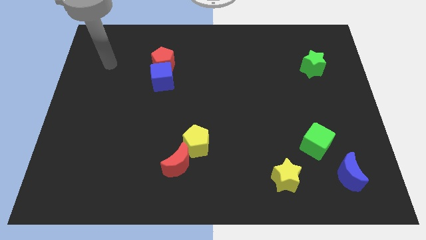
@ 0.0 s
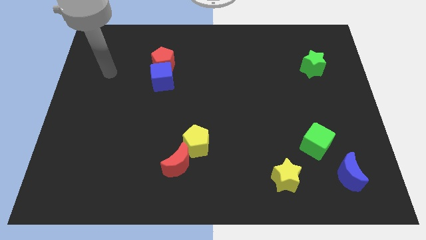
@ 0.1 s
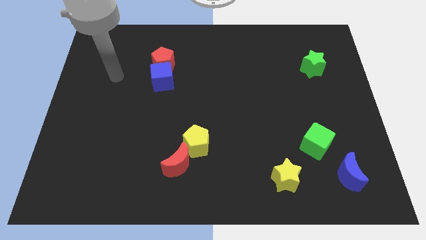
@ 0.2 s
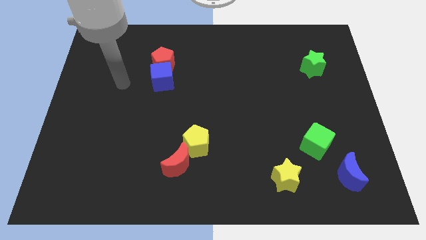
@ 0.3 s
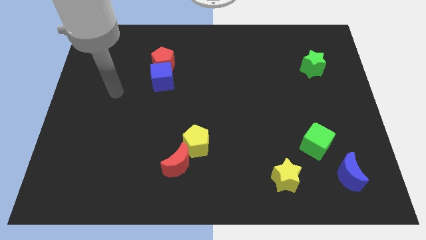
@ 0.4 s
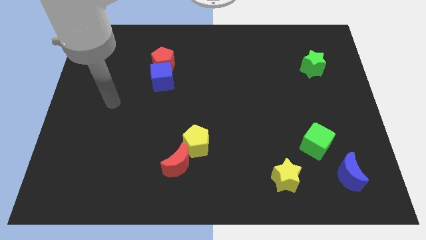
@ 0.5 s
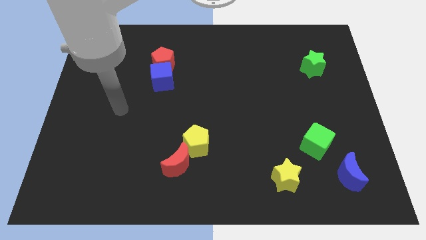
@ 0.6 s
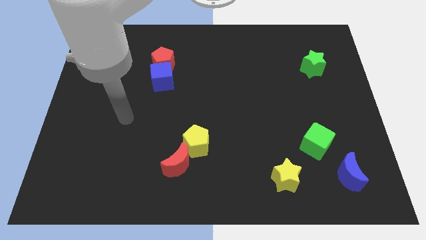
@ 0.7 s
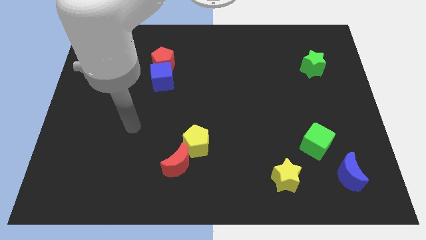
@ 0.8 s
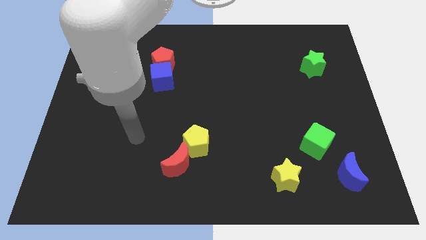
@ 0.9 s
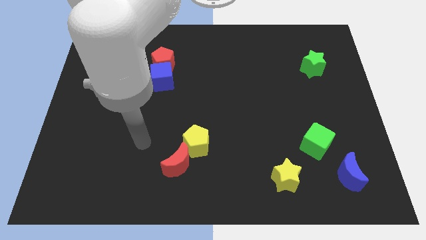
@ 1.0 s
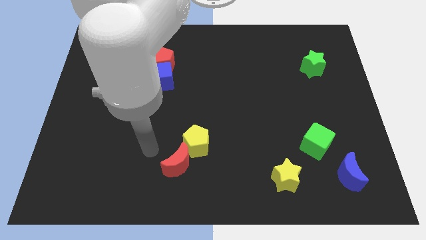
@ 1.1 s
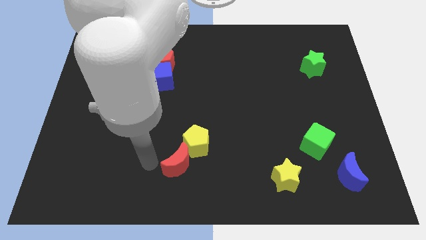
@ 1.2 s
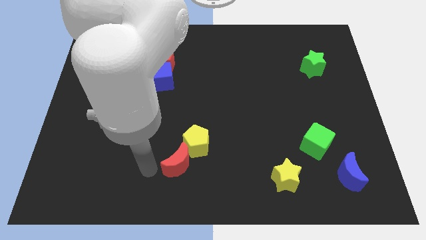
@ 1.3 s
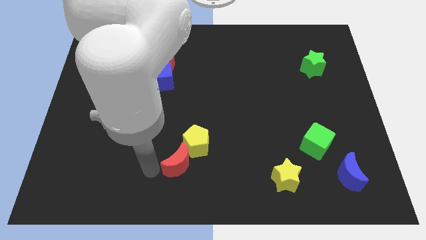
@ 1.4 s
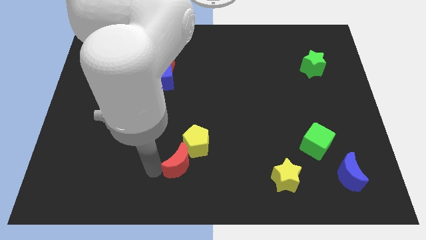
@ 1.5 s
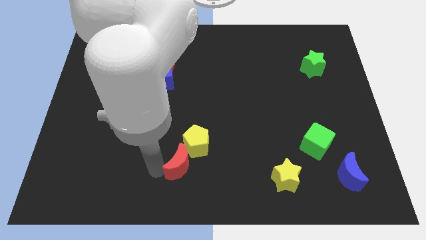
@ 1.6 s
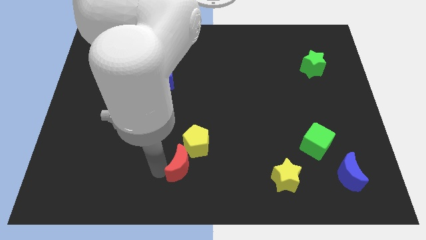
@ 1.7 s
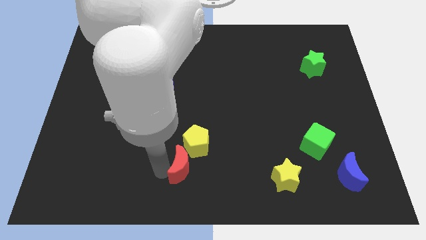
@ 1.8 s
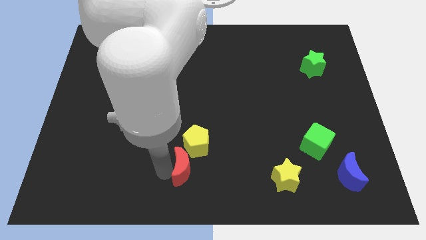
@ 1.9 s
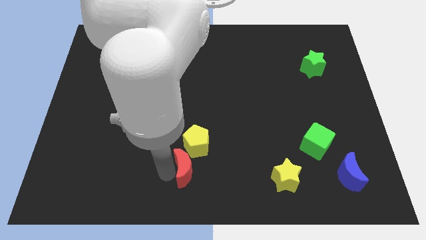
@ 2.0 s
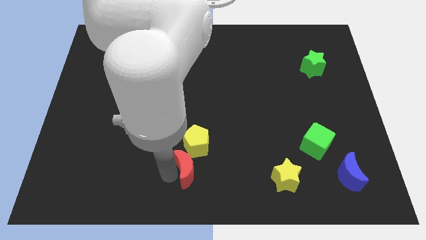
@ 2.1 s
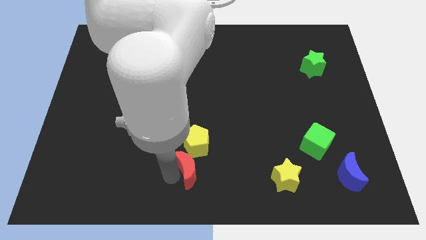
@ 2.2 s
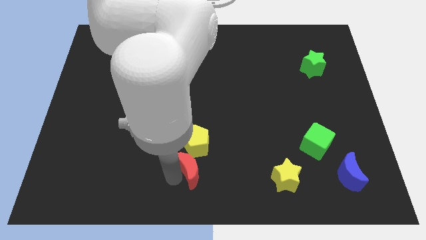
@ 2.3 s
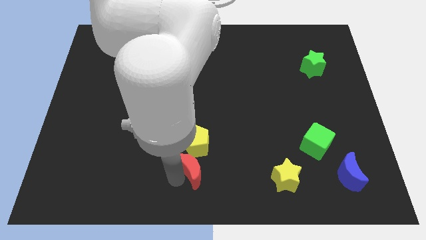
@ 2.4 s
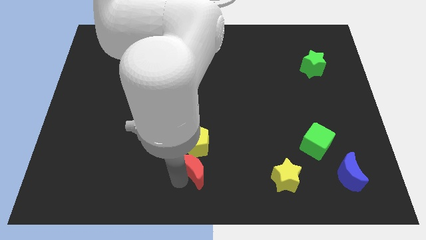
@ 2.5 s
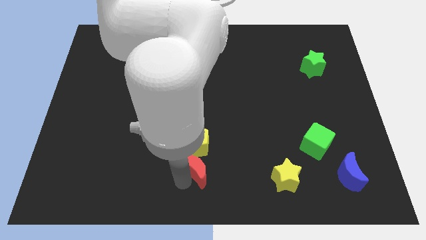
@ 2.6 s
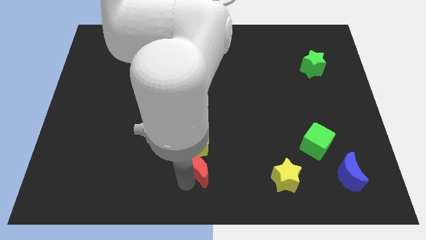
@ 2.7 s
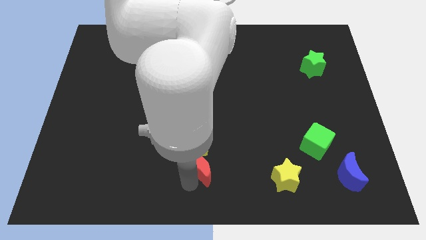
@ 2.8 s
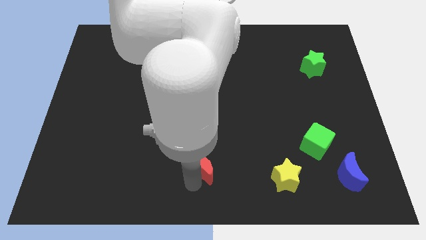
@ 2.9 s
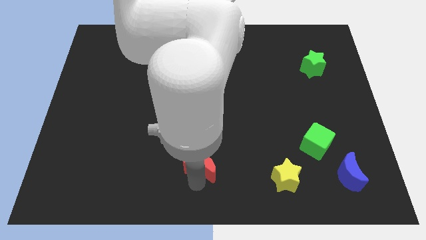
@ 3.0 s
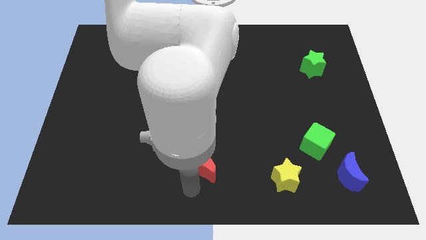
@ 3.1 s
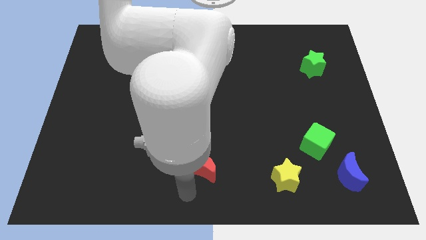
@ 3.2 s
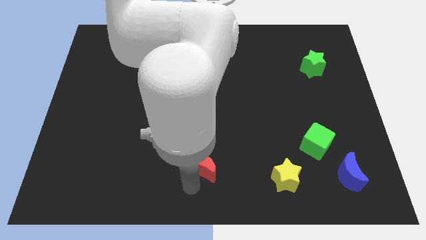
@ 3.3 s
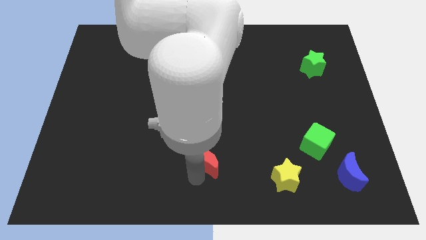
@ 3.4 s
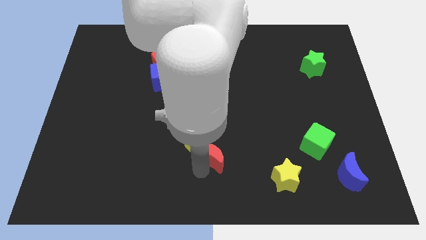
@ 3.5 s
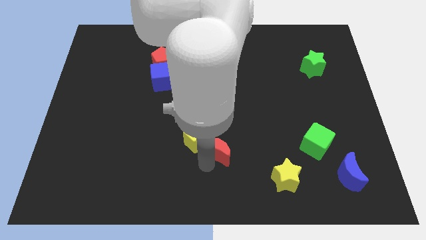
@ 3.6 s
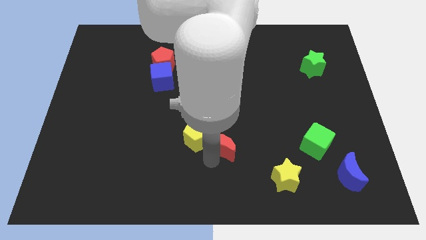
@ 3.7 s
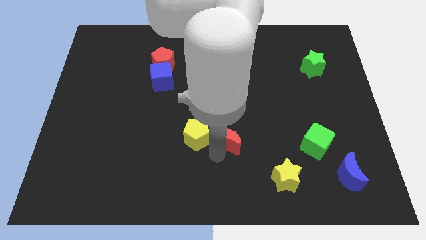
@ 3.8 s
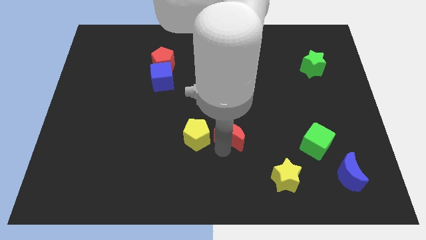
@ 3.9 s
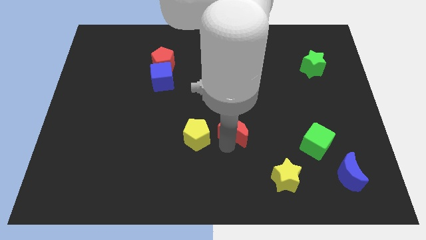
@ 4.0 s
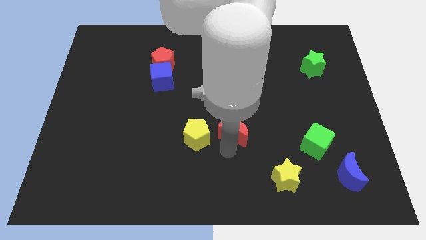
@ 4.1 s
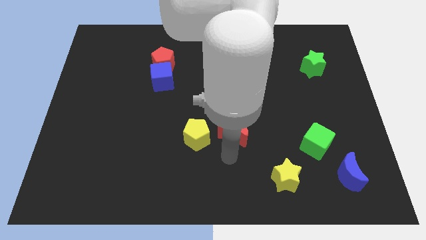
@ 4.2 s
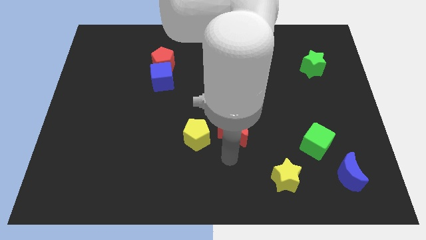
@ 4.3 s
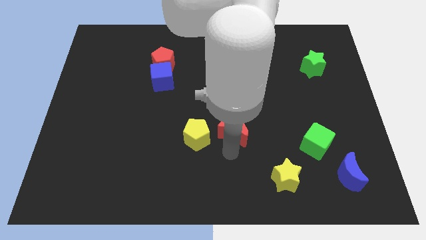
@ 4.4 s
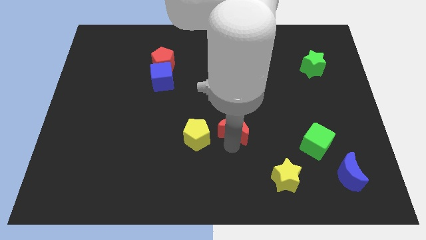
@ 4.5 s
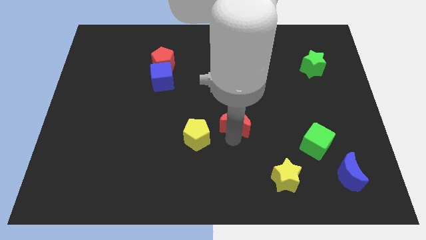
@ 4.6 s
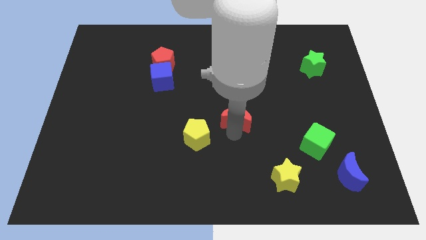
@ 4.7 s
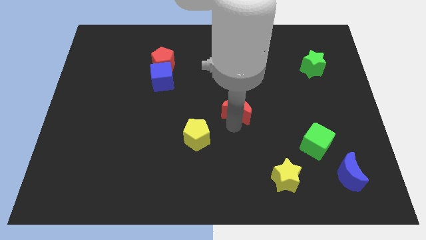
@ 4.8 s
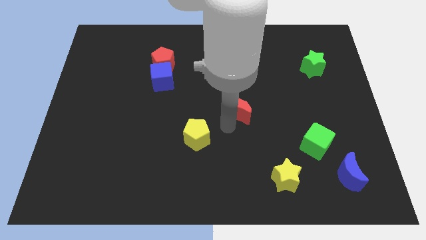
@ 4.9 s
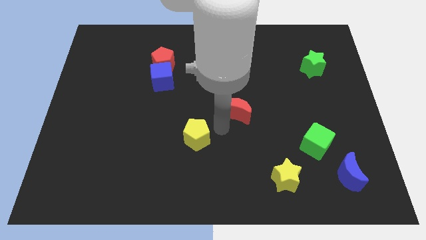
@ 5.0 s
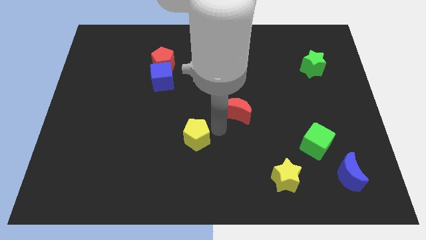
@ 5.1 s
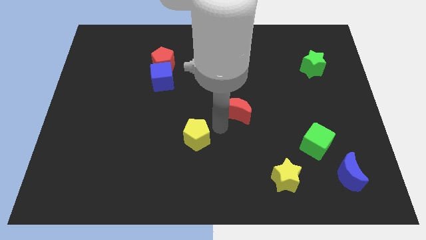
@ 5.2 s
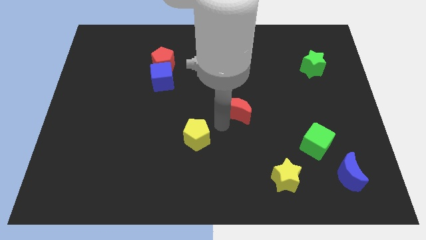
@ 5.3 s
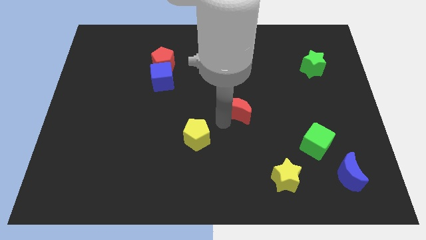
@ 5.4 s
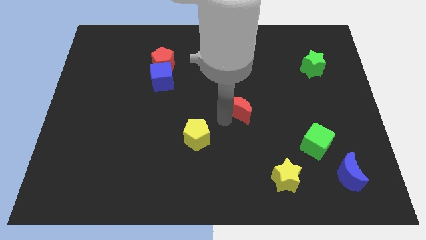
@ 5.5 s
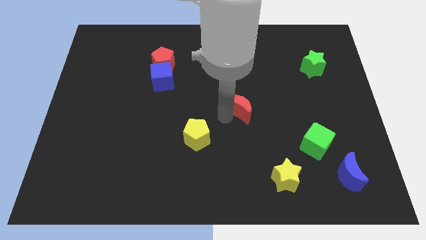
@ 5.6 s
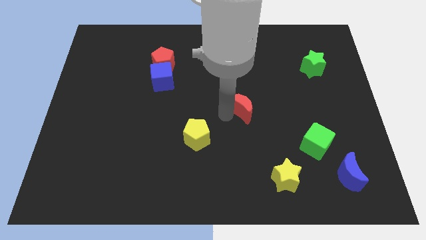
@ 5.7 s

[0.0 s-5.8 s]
push the red moon upwards and to the right

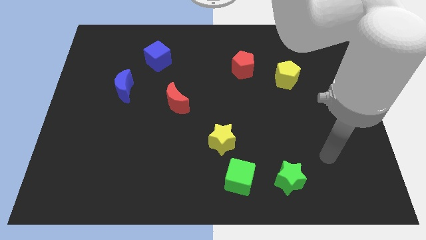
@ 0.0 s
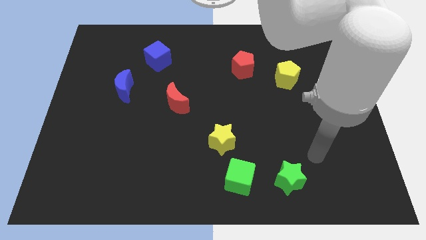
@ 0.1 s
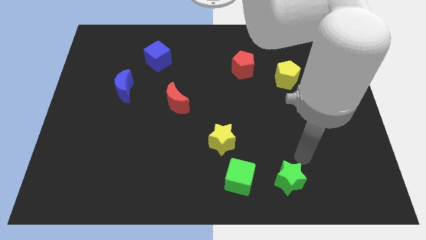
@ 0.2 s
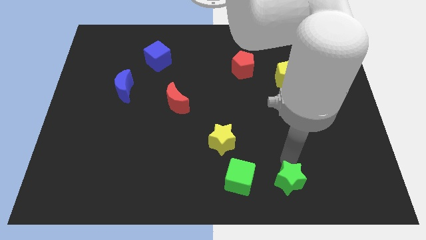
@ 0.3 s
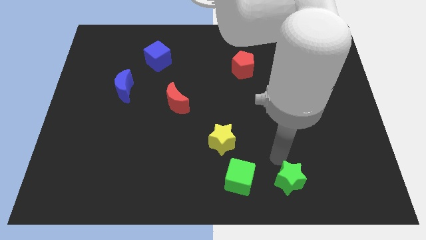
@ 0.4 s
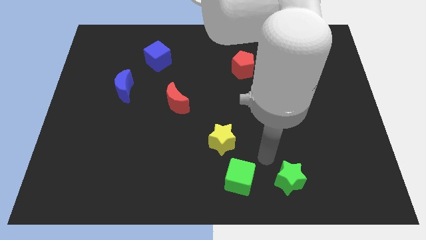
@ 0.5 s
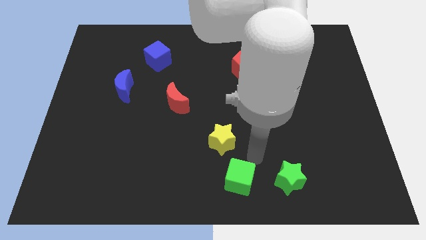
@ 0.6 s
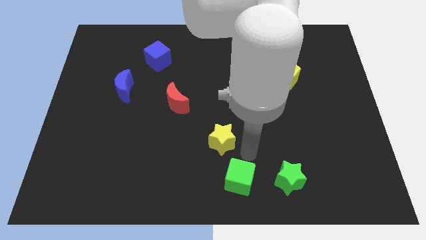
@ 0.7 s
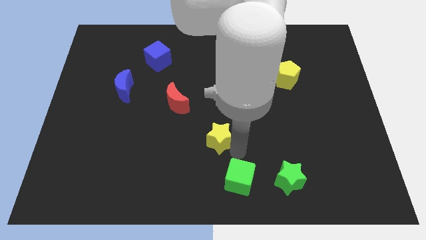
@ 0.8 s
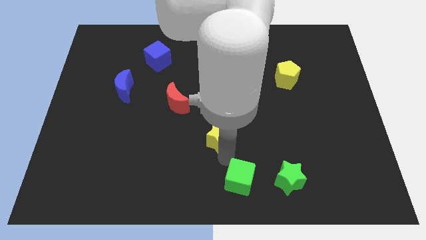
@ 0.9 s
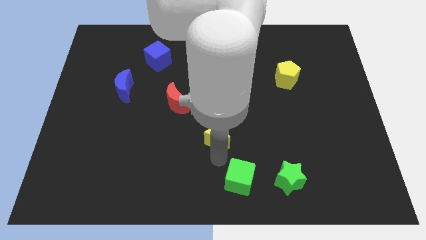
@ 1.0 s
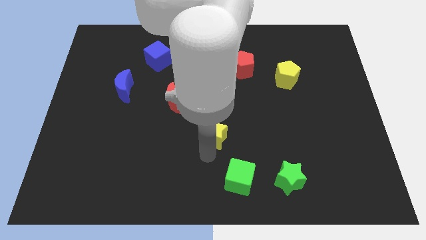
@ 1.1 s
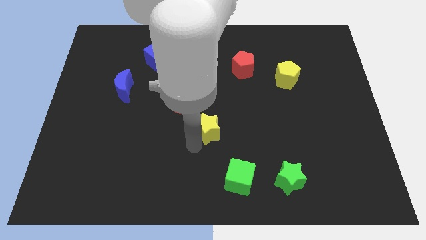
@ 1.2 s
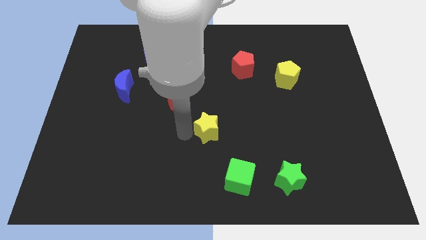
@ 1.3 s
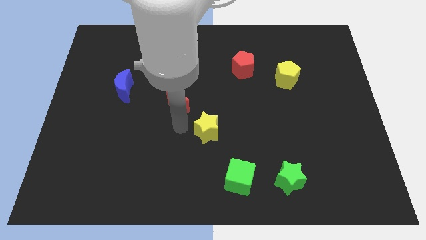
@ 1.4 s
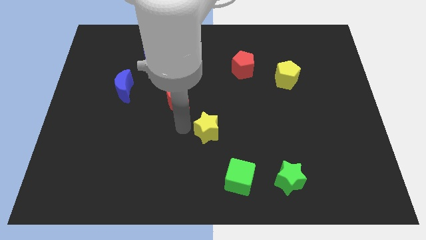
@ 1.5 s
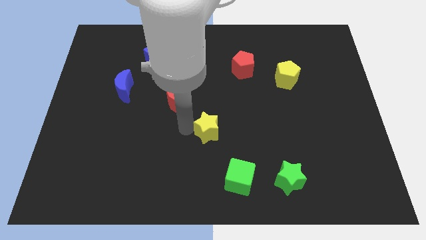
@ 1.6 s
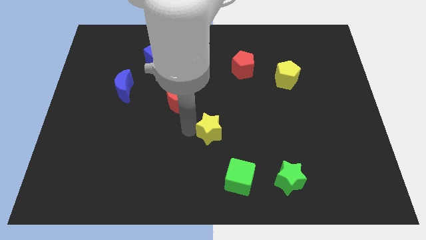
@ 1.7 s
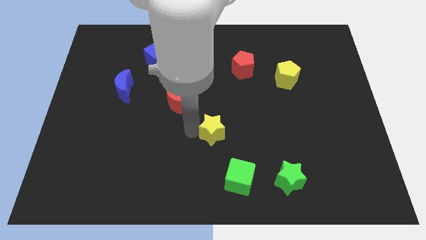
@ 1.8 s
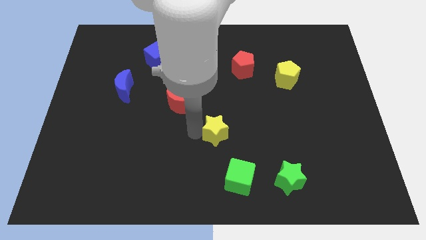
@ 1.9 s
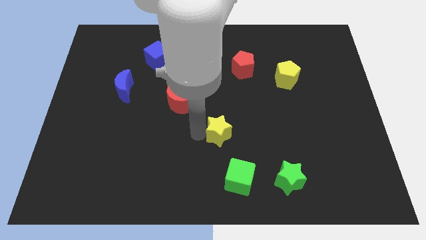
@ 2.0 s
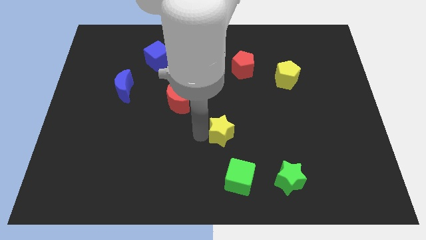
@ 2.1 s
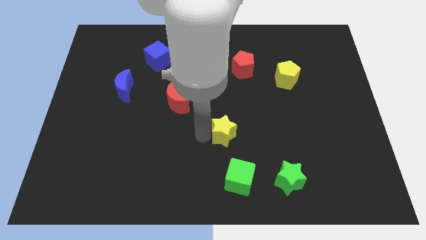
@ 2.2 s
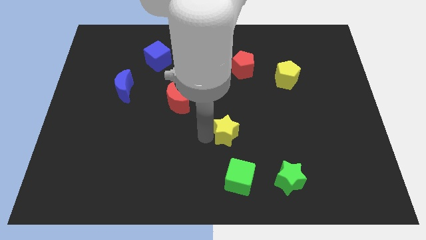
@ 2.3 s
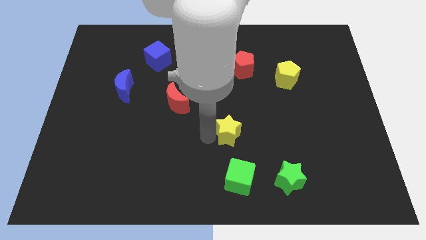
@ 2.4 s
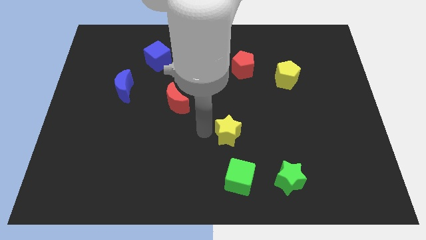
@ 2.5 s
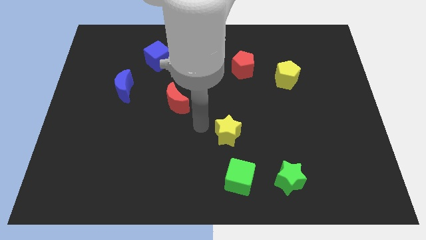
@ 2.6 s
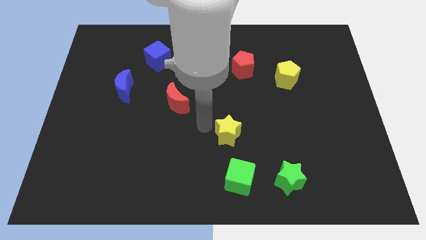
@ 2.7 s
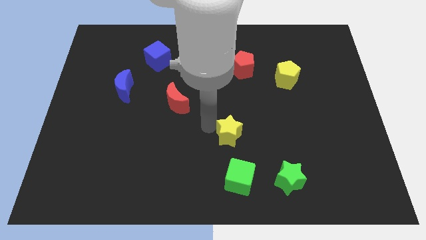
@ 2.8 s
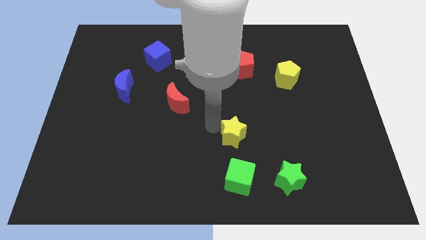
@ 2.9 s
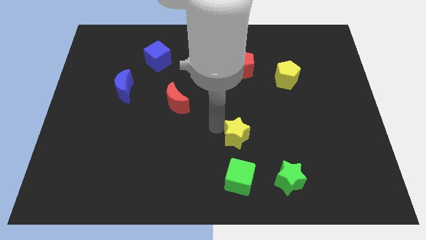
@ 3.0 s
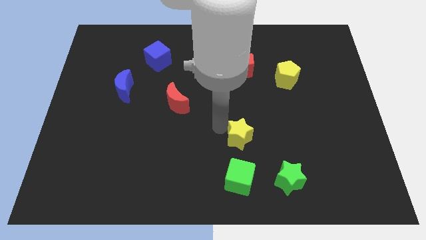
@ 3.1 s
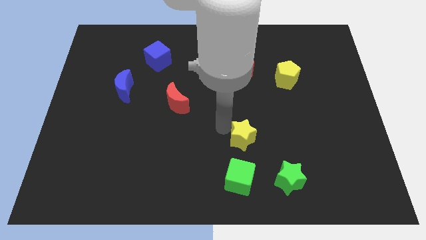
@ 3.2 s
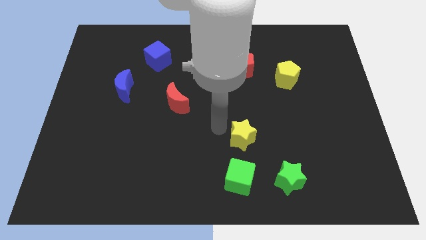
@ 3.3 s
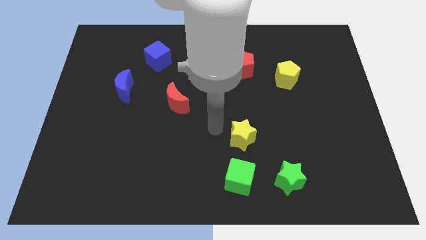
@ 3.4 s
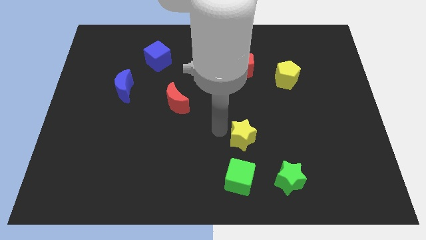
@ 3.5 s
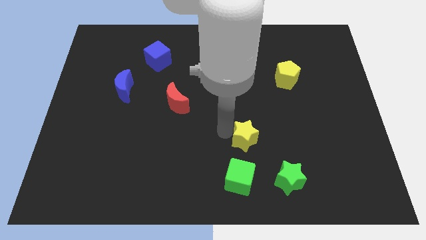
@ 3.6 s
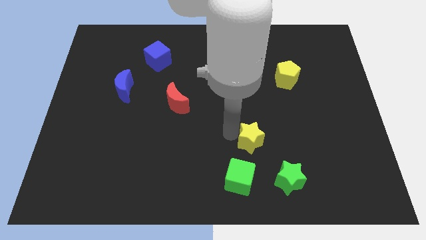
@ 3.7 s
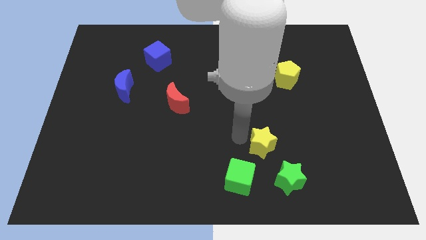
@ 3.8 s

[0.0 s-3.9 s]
slightly push the yellow star to the right
